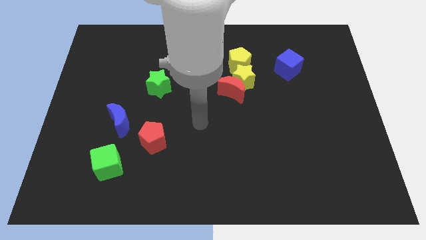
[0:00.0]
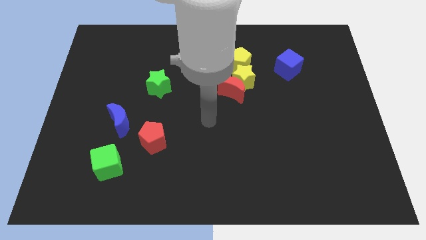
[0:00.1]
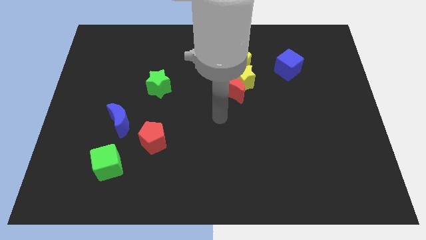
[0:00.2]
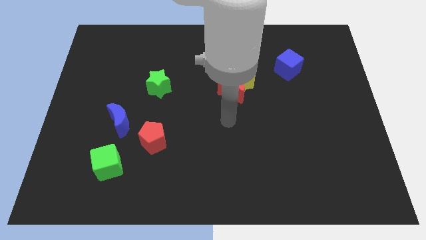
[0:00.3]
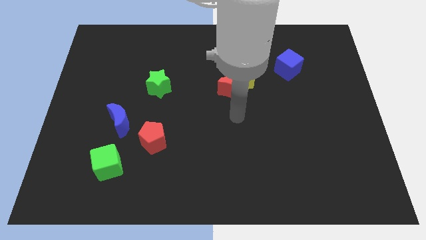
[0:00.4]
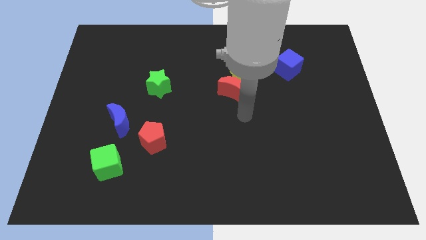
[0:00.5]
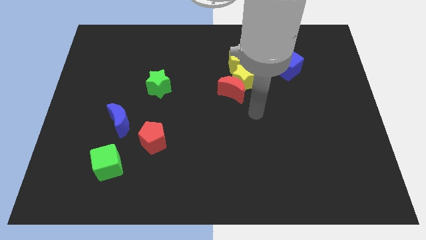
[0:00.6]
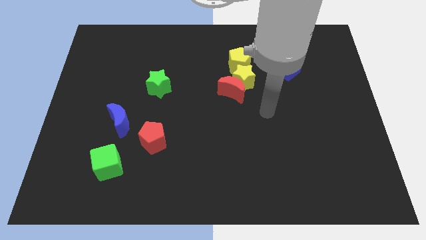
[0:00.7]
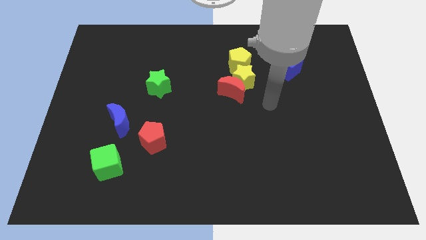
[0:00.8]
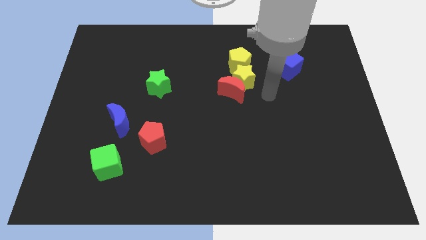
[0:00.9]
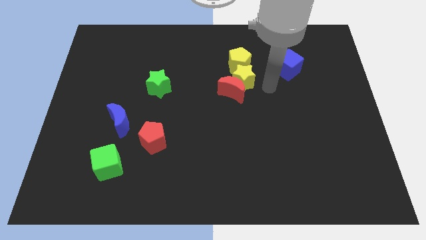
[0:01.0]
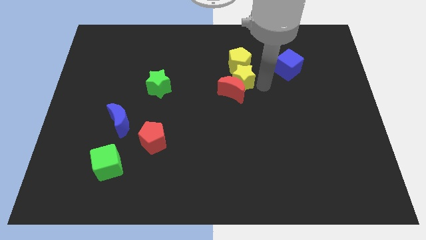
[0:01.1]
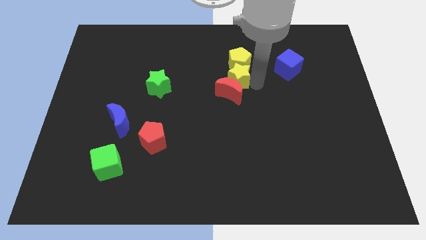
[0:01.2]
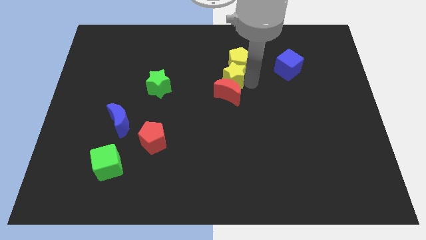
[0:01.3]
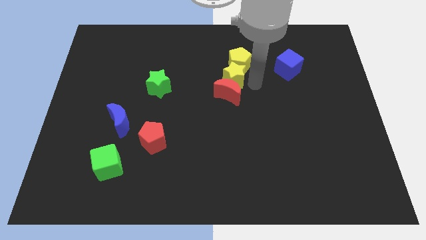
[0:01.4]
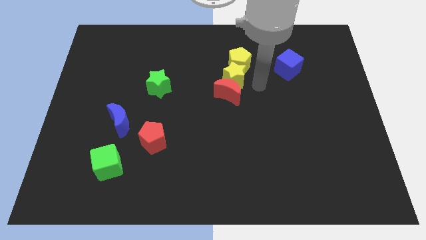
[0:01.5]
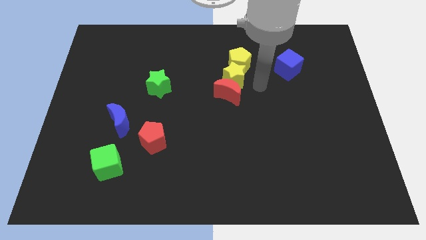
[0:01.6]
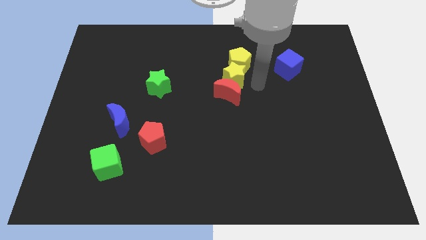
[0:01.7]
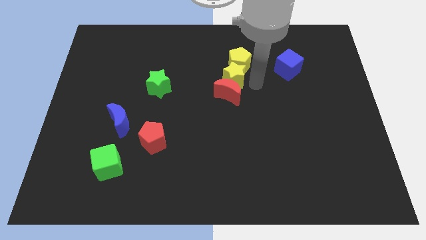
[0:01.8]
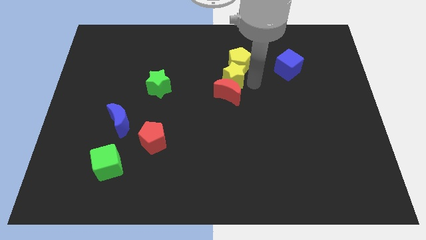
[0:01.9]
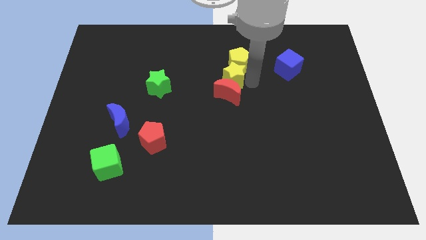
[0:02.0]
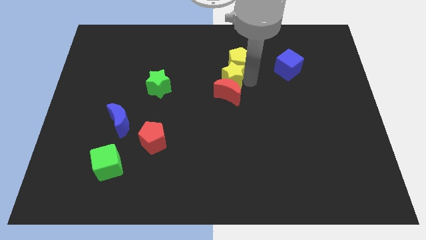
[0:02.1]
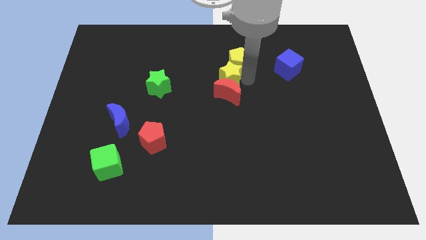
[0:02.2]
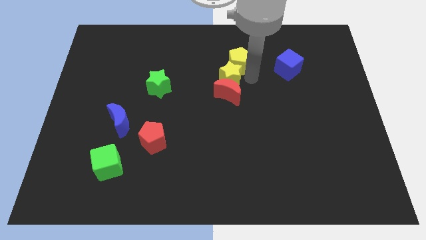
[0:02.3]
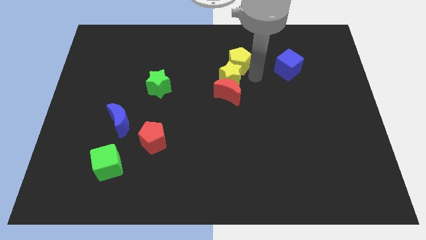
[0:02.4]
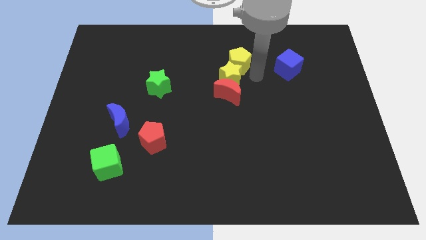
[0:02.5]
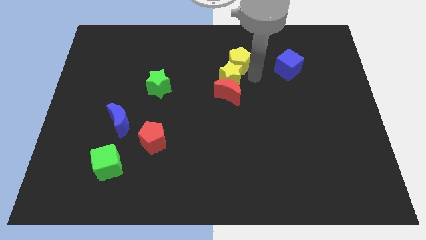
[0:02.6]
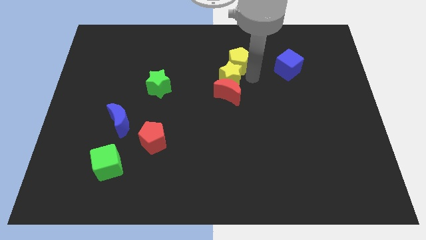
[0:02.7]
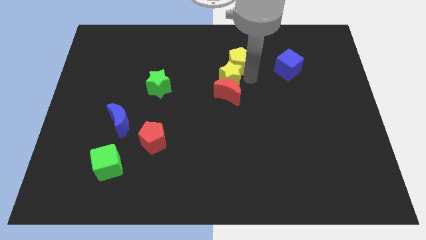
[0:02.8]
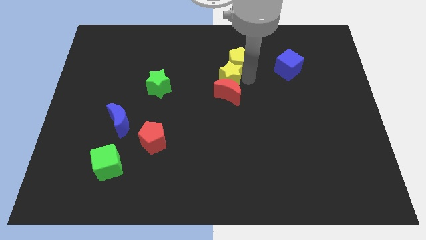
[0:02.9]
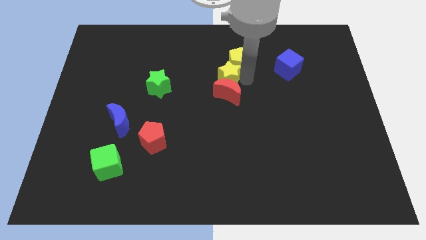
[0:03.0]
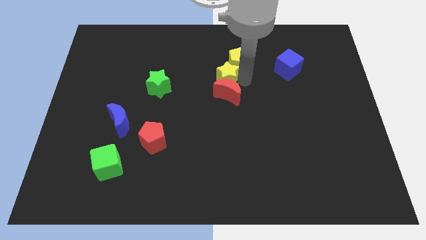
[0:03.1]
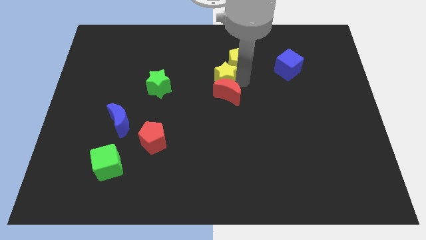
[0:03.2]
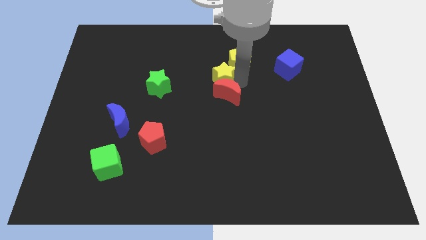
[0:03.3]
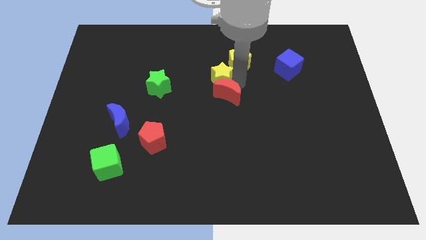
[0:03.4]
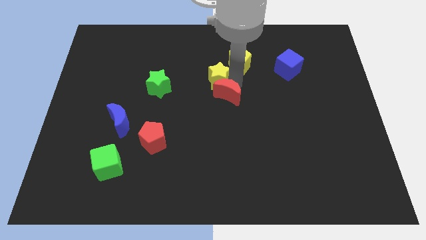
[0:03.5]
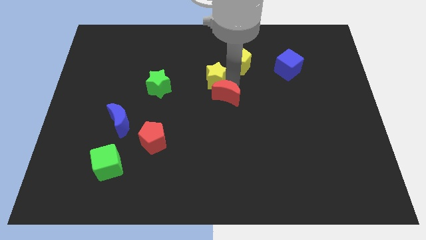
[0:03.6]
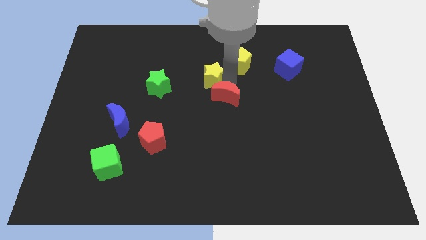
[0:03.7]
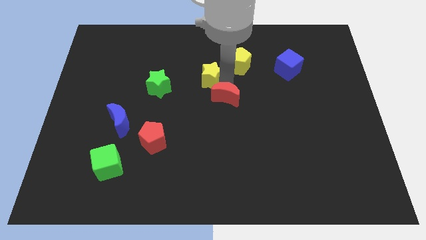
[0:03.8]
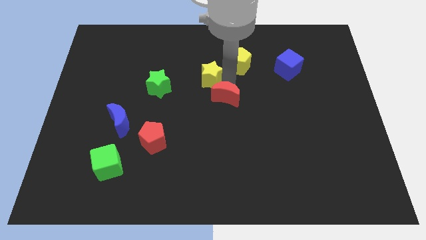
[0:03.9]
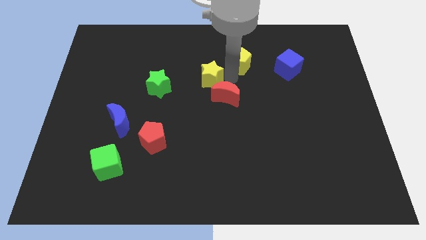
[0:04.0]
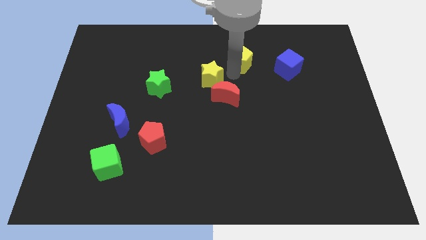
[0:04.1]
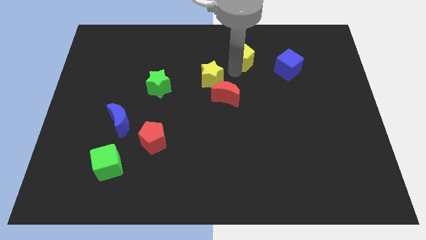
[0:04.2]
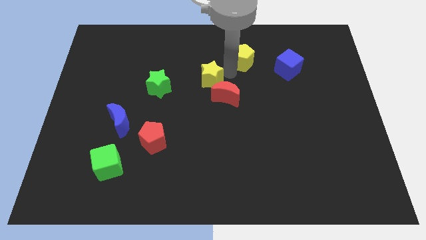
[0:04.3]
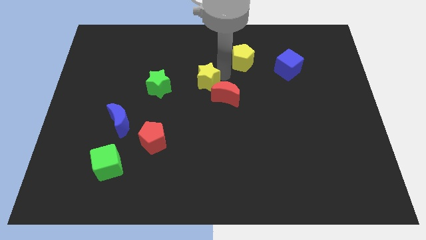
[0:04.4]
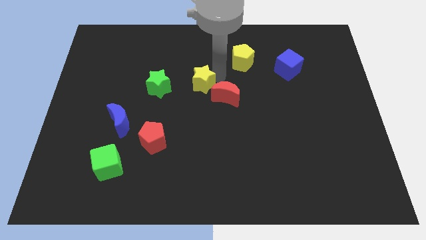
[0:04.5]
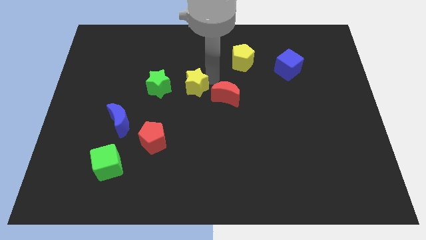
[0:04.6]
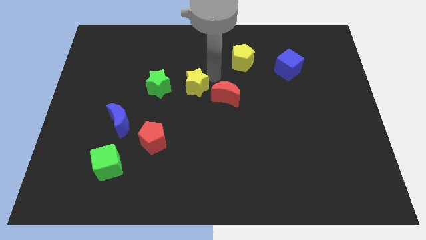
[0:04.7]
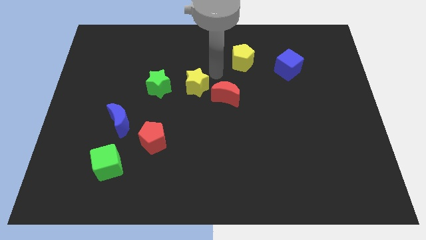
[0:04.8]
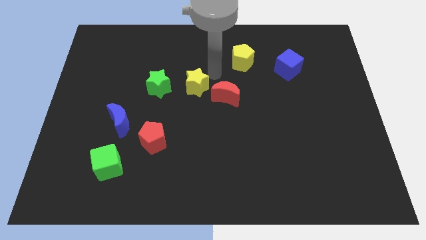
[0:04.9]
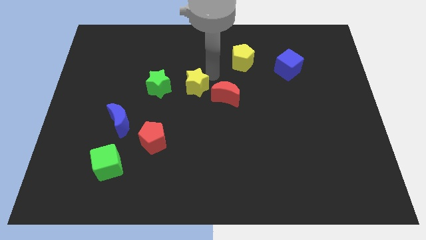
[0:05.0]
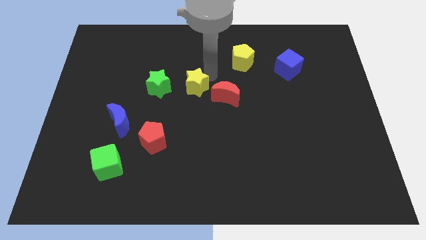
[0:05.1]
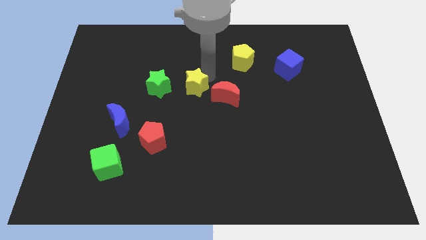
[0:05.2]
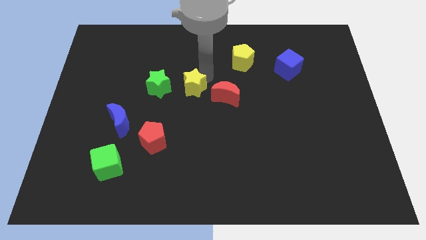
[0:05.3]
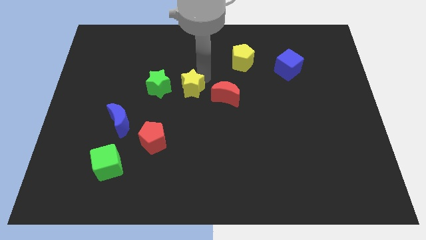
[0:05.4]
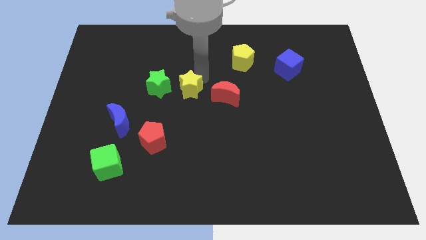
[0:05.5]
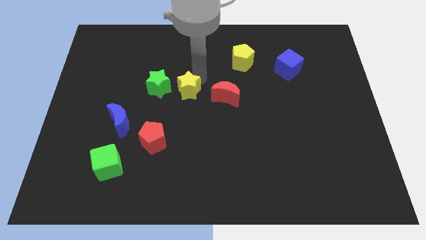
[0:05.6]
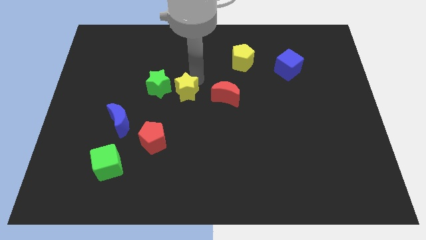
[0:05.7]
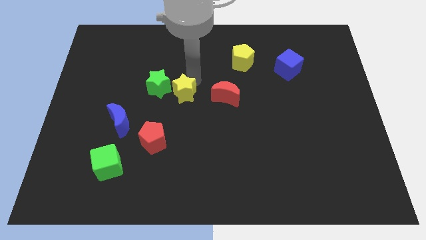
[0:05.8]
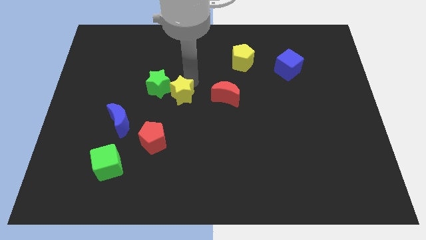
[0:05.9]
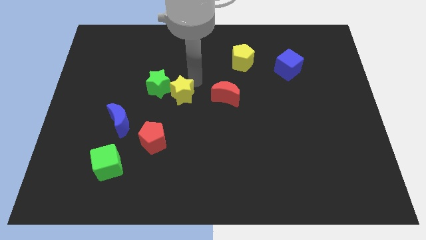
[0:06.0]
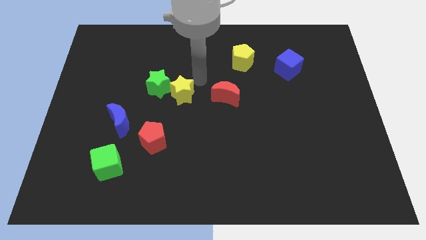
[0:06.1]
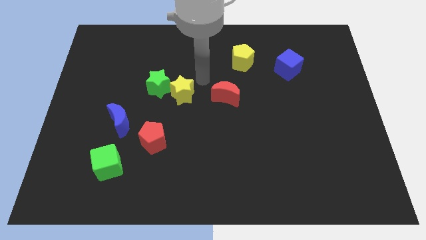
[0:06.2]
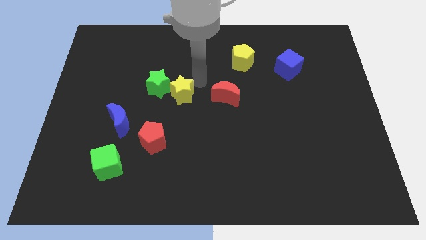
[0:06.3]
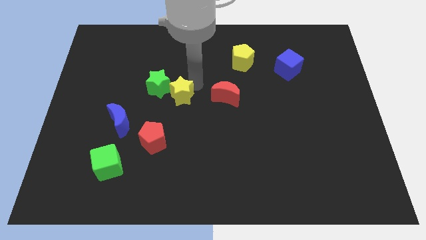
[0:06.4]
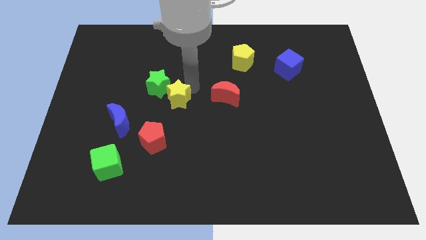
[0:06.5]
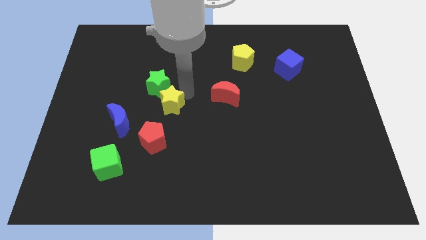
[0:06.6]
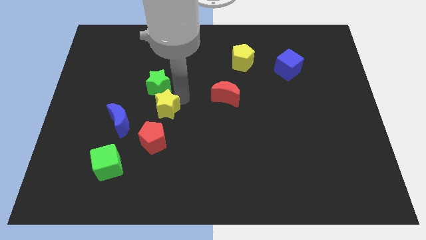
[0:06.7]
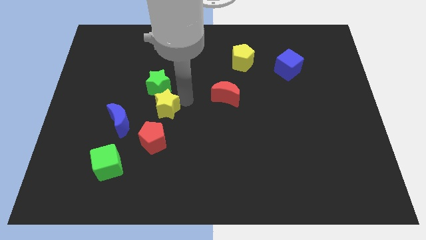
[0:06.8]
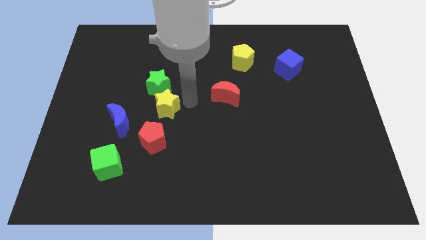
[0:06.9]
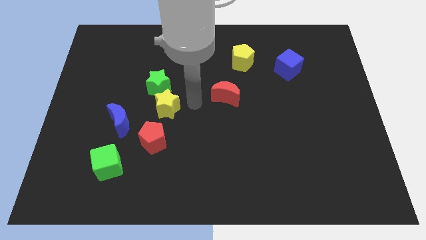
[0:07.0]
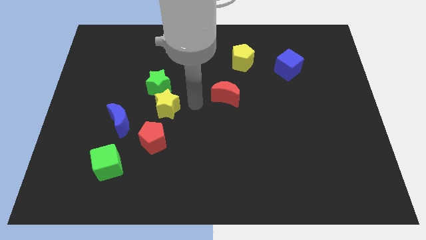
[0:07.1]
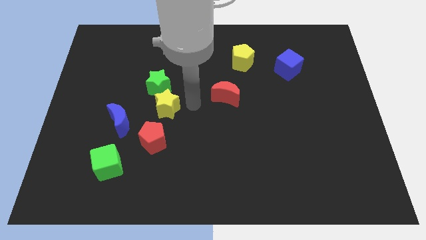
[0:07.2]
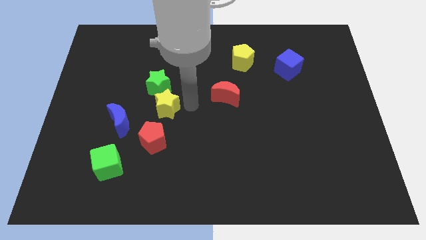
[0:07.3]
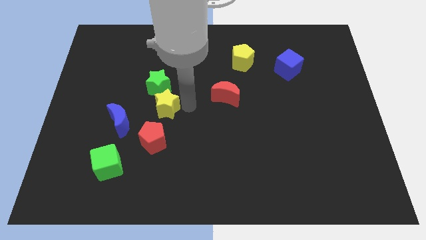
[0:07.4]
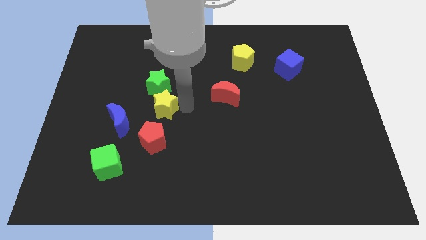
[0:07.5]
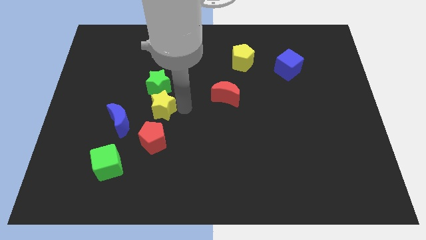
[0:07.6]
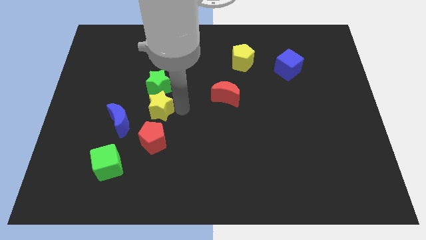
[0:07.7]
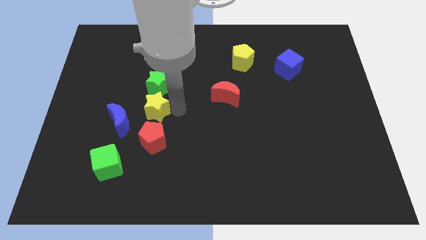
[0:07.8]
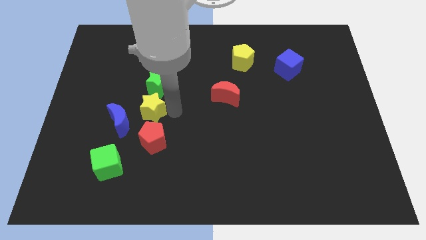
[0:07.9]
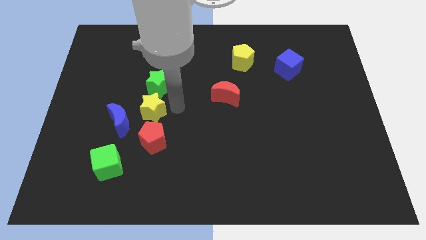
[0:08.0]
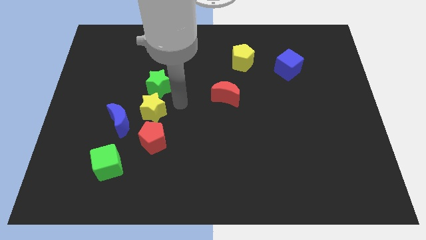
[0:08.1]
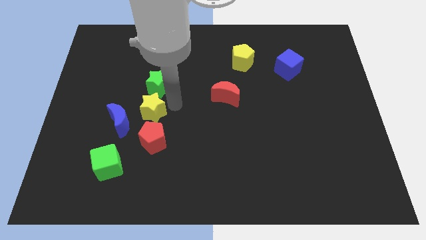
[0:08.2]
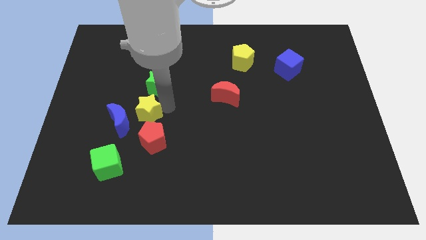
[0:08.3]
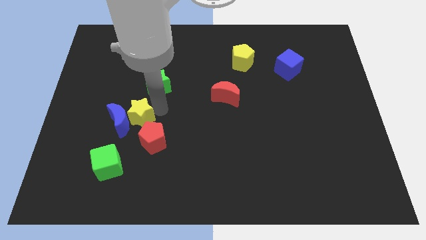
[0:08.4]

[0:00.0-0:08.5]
slide the yellow star next to the blue moon
